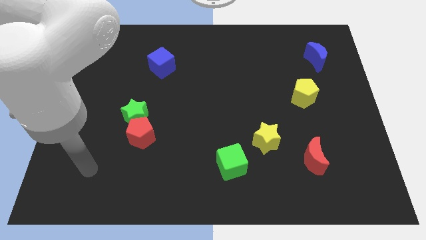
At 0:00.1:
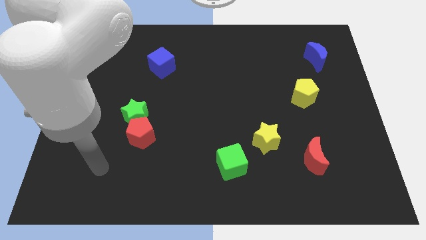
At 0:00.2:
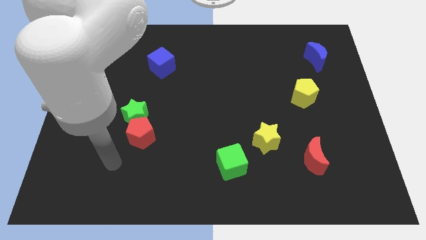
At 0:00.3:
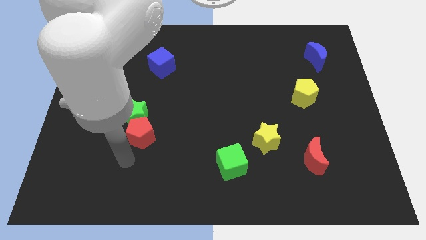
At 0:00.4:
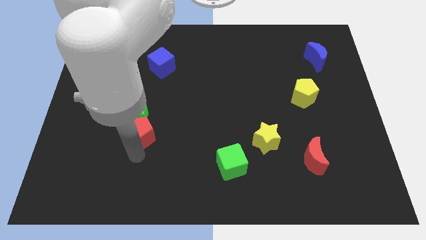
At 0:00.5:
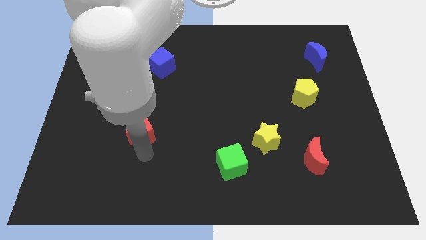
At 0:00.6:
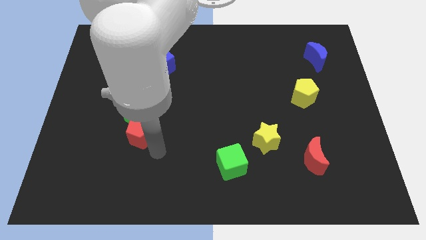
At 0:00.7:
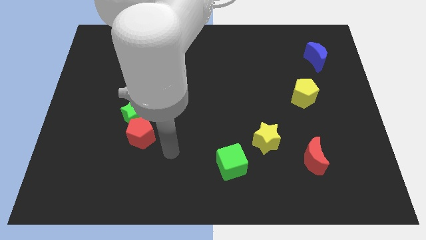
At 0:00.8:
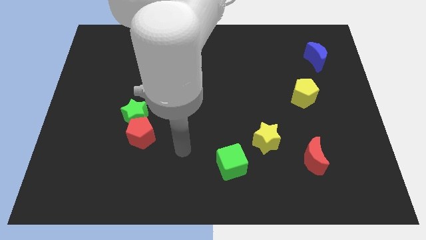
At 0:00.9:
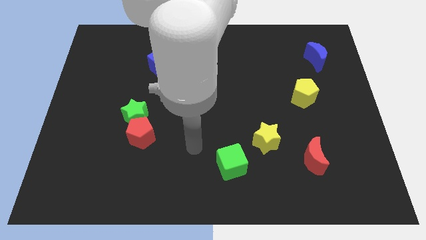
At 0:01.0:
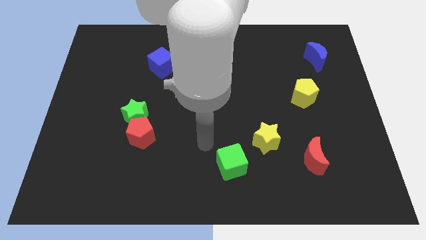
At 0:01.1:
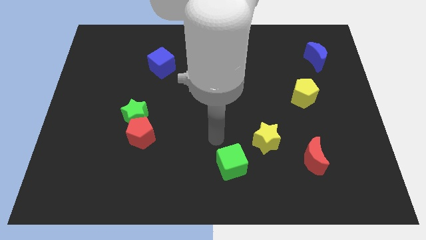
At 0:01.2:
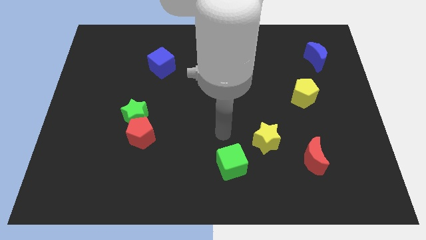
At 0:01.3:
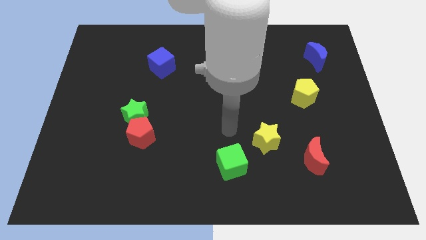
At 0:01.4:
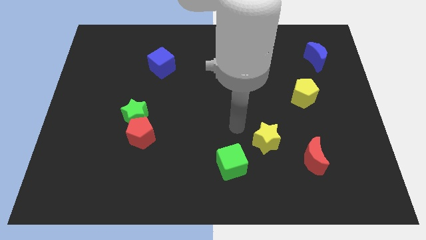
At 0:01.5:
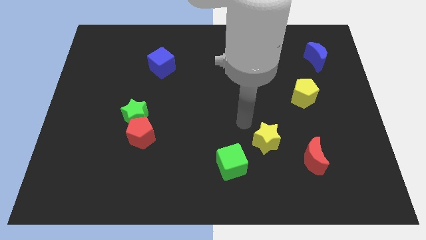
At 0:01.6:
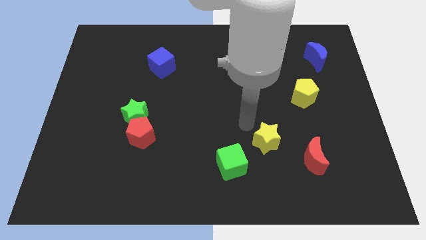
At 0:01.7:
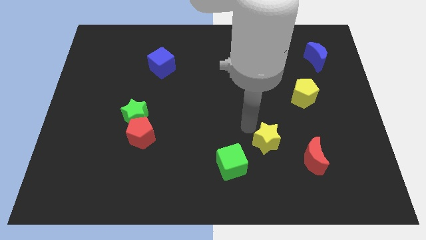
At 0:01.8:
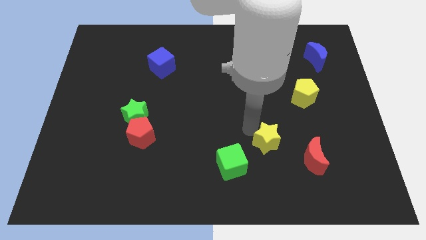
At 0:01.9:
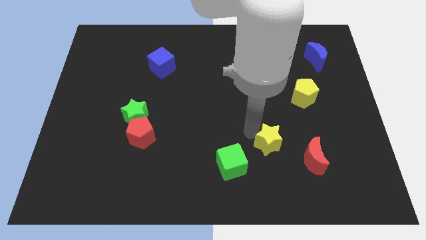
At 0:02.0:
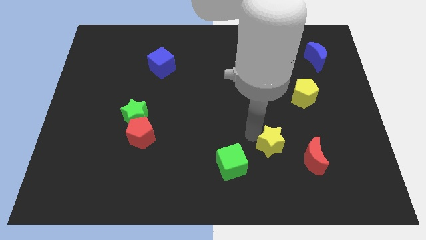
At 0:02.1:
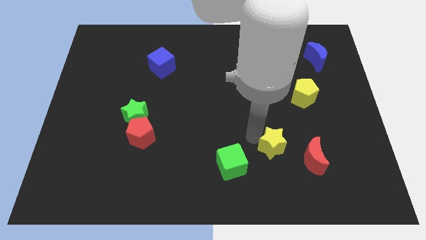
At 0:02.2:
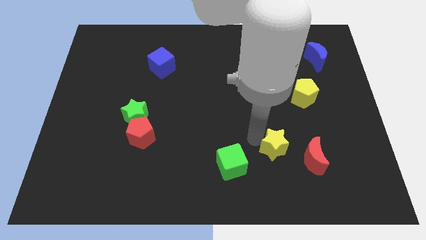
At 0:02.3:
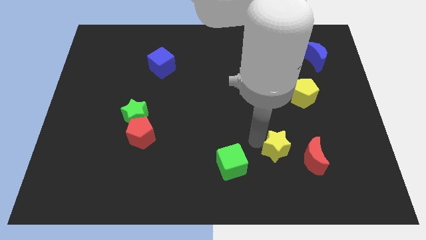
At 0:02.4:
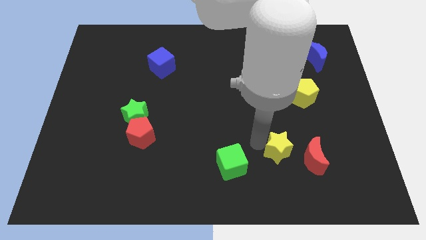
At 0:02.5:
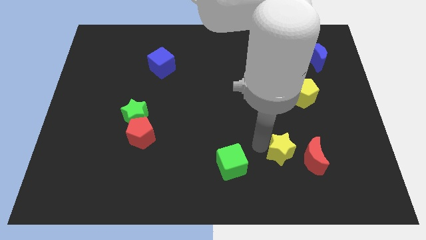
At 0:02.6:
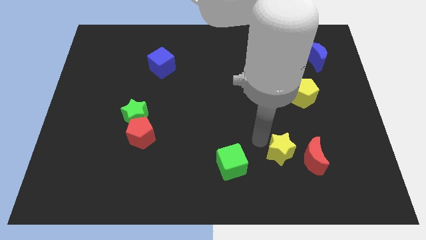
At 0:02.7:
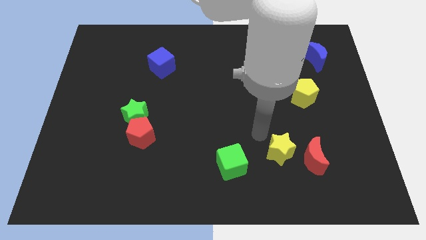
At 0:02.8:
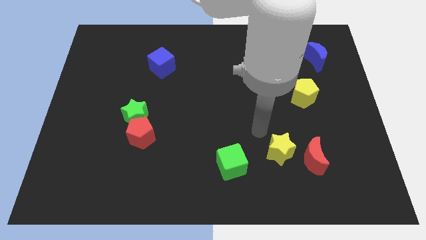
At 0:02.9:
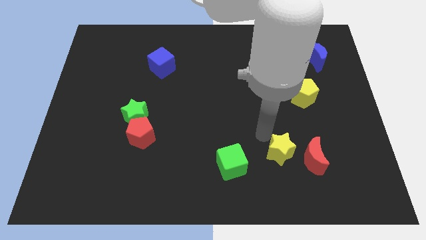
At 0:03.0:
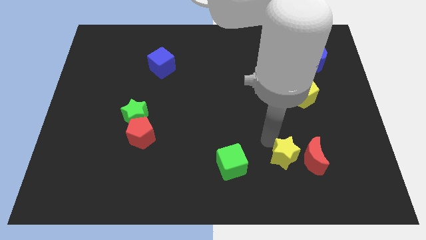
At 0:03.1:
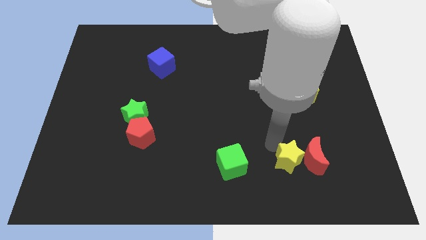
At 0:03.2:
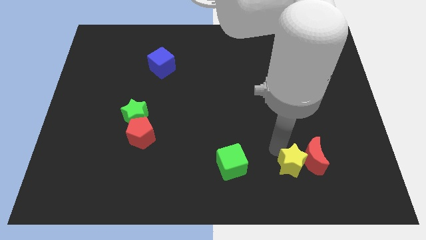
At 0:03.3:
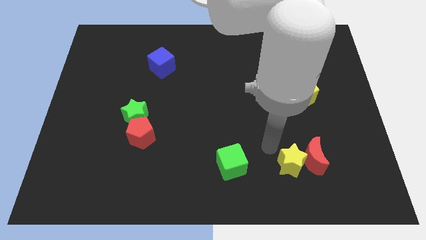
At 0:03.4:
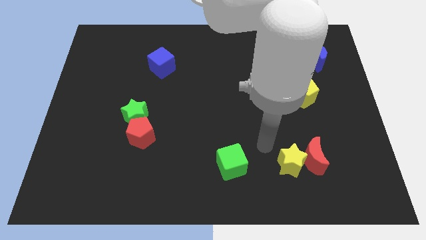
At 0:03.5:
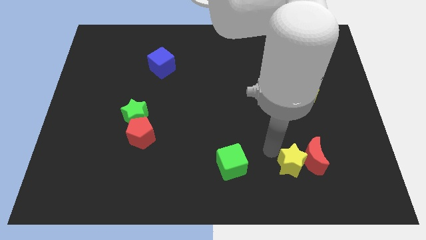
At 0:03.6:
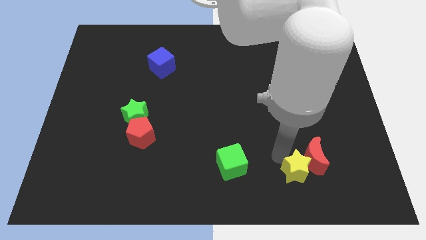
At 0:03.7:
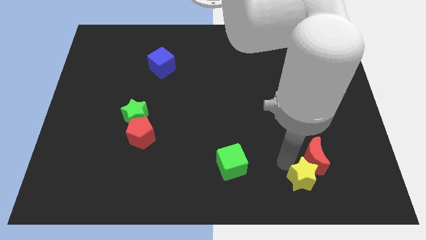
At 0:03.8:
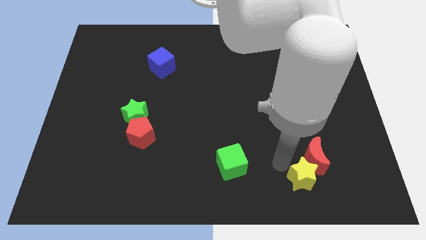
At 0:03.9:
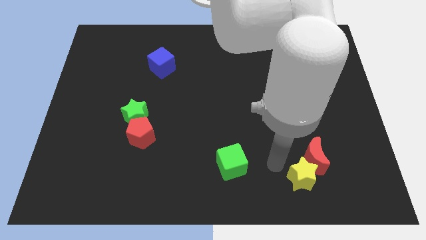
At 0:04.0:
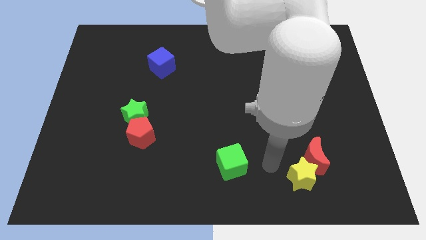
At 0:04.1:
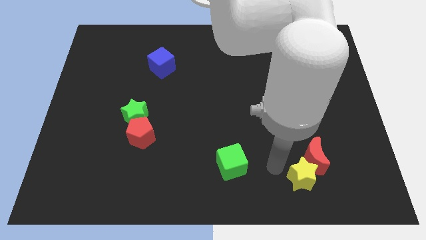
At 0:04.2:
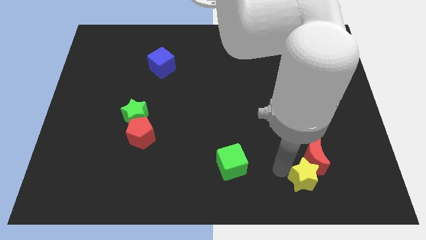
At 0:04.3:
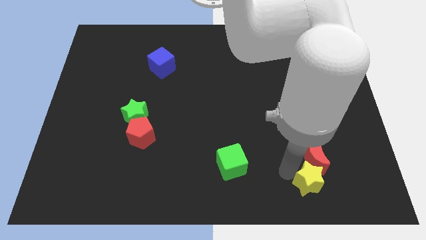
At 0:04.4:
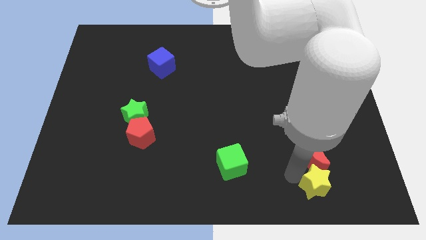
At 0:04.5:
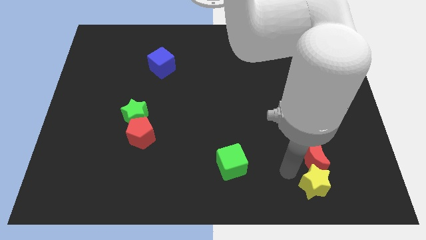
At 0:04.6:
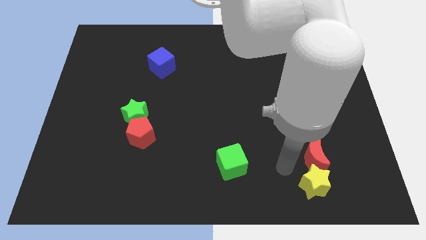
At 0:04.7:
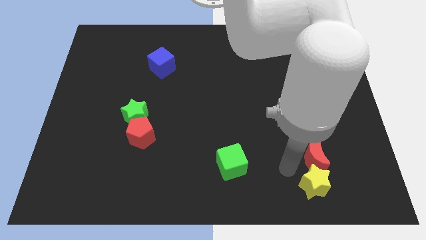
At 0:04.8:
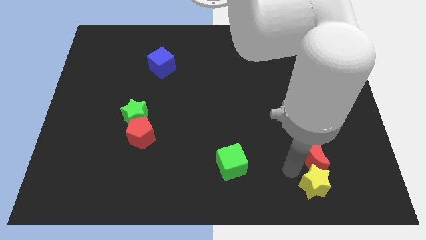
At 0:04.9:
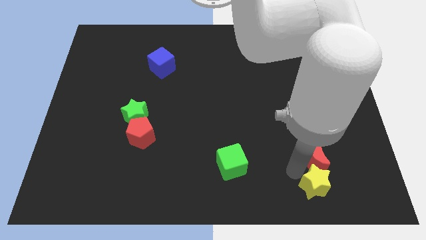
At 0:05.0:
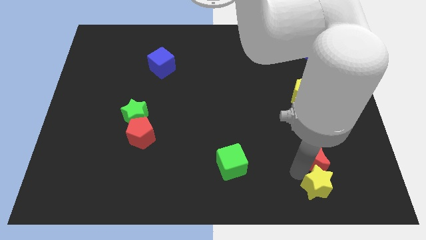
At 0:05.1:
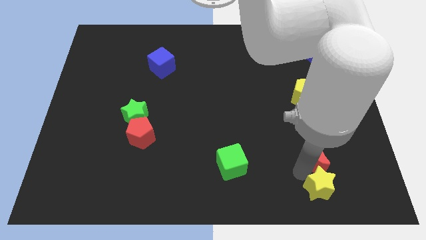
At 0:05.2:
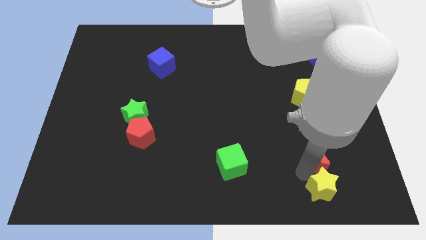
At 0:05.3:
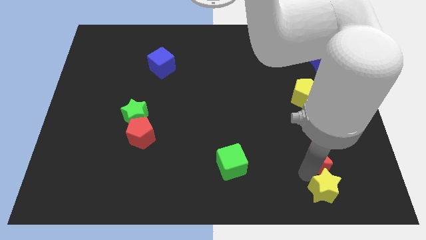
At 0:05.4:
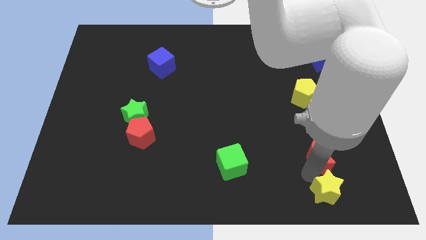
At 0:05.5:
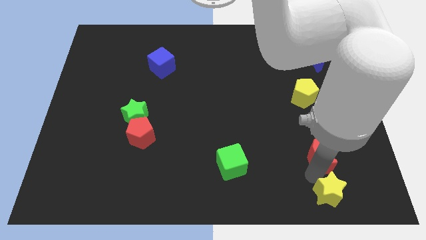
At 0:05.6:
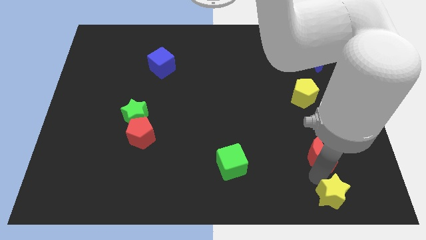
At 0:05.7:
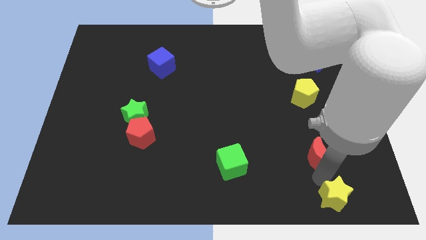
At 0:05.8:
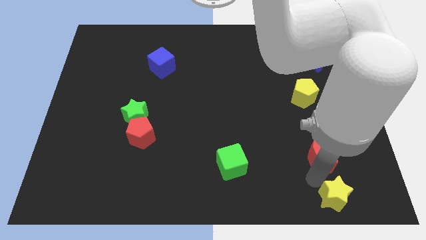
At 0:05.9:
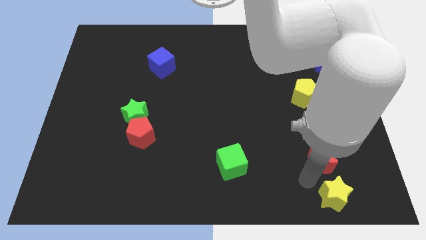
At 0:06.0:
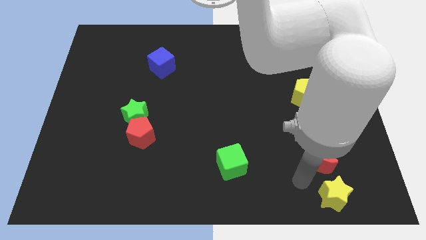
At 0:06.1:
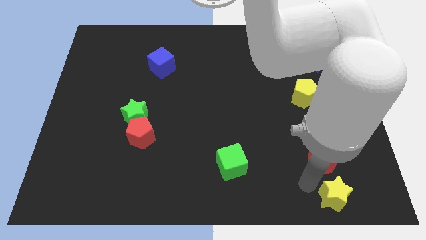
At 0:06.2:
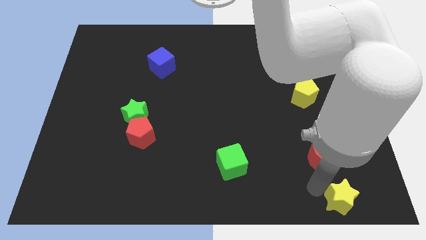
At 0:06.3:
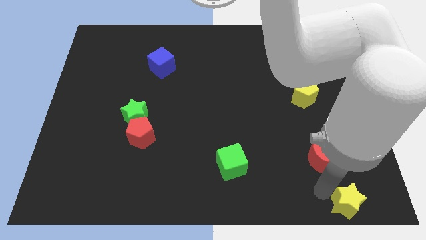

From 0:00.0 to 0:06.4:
slide the yellow star to the bottom right
